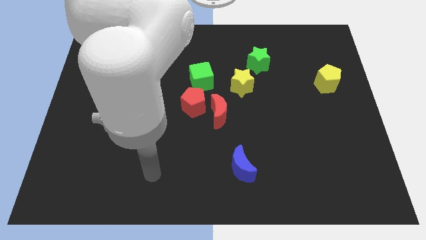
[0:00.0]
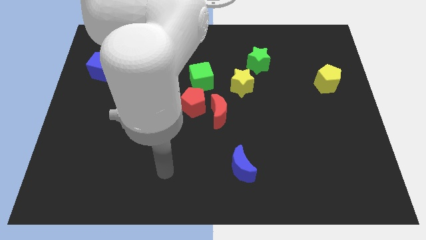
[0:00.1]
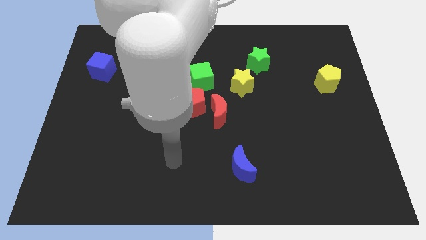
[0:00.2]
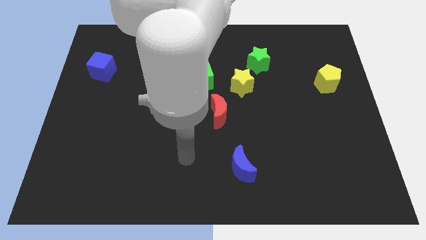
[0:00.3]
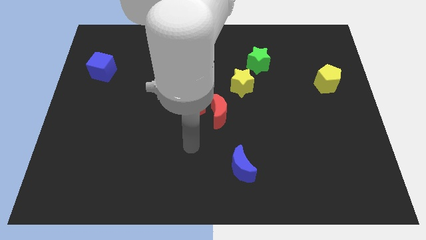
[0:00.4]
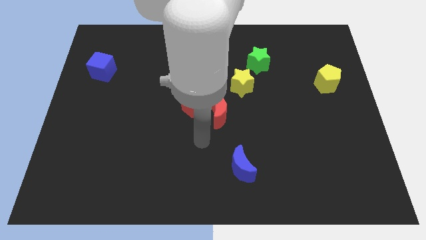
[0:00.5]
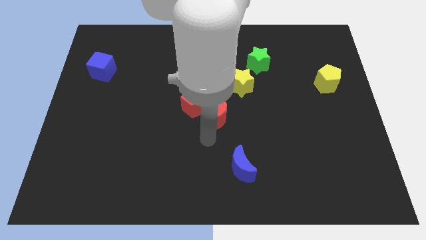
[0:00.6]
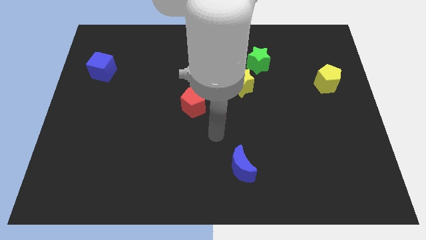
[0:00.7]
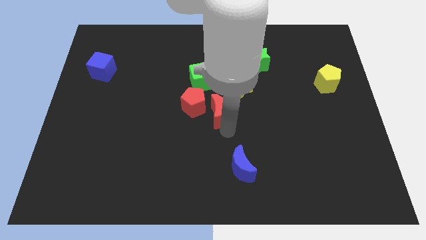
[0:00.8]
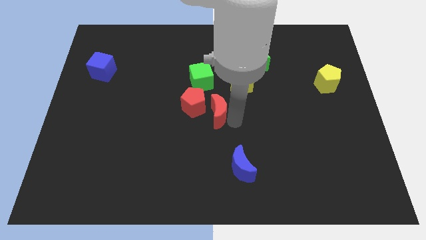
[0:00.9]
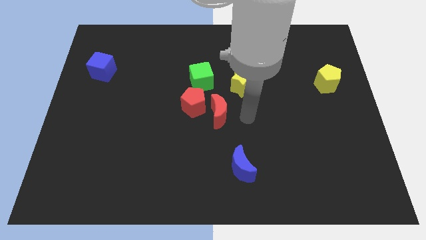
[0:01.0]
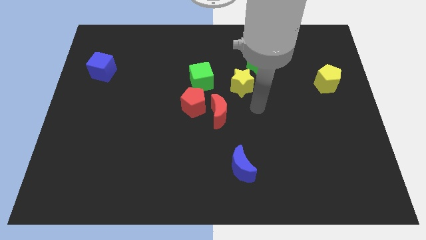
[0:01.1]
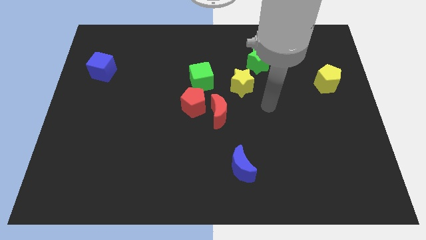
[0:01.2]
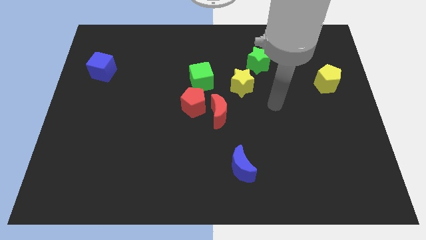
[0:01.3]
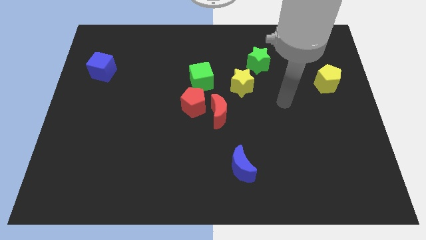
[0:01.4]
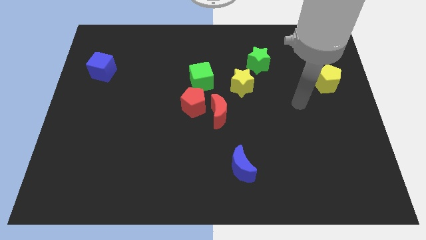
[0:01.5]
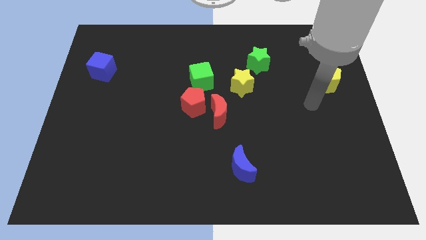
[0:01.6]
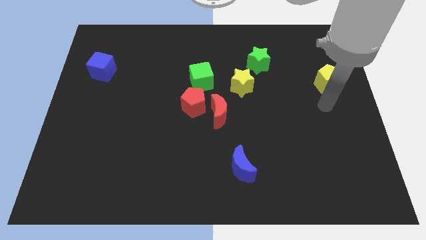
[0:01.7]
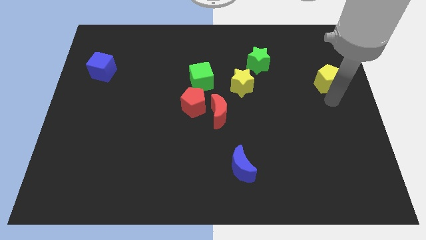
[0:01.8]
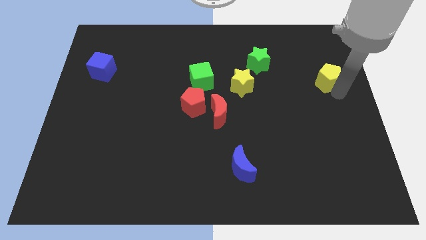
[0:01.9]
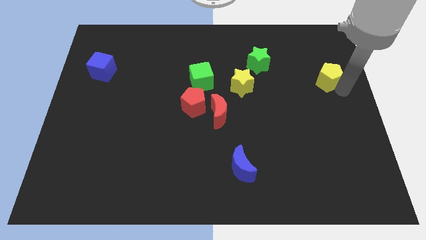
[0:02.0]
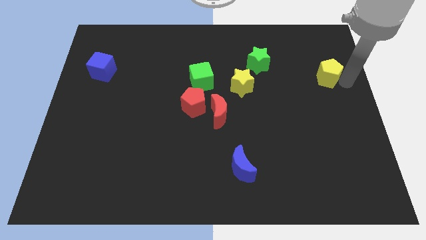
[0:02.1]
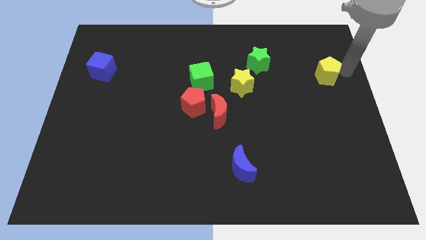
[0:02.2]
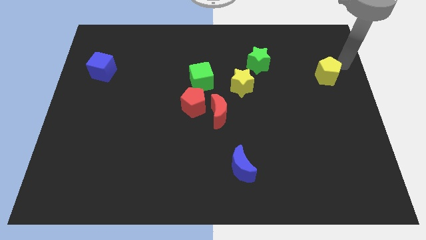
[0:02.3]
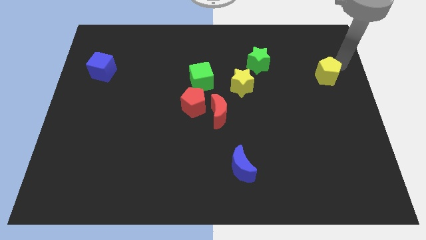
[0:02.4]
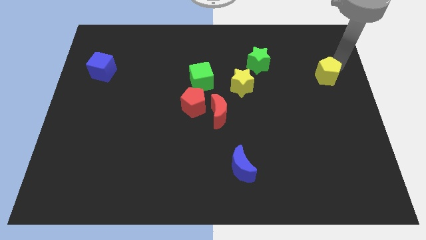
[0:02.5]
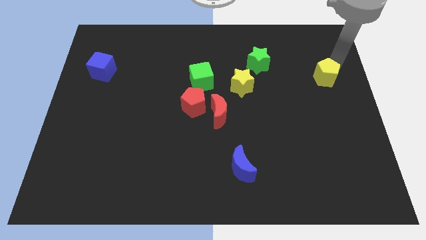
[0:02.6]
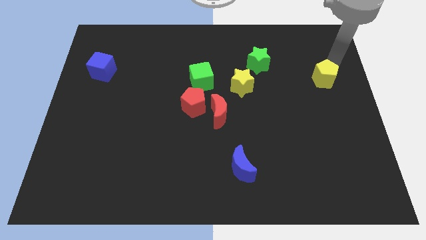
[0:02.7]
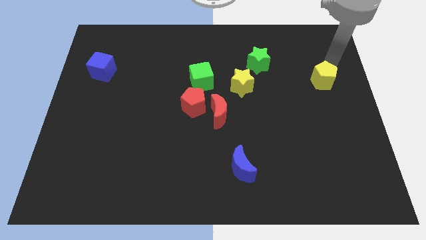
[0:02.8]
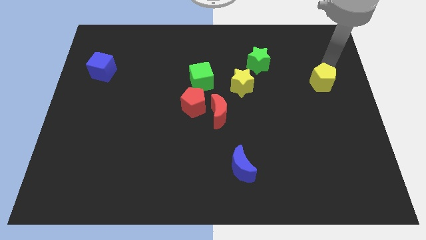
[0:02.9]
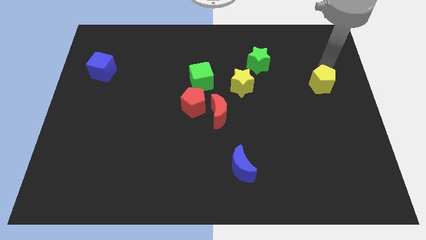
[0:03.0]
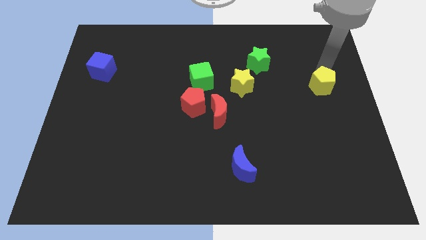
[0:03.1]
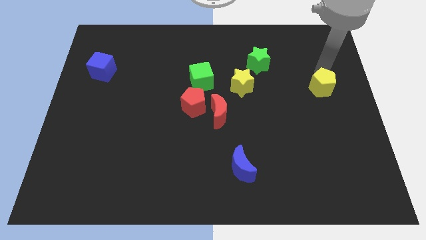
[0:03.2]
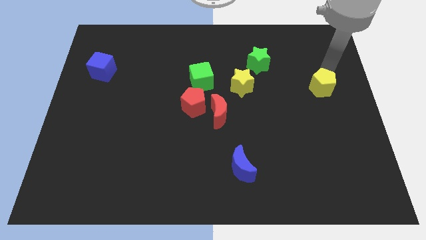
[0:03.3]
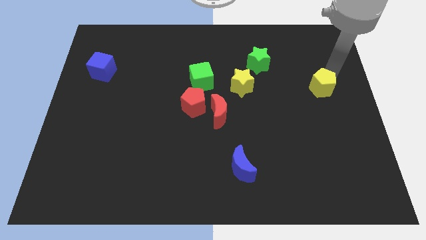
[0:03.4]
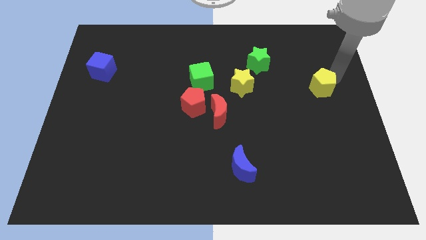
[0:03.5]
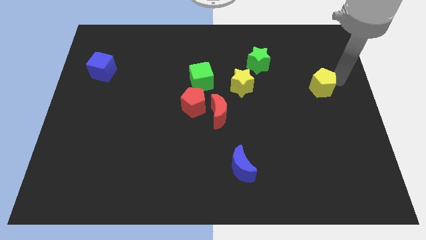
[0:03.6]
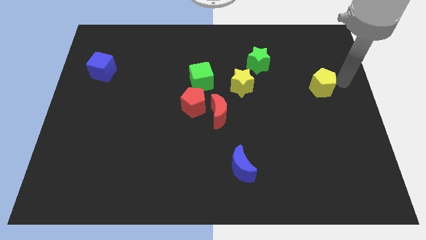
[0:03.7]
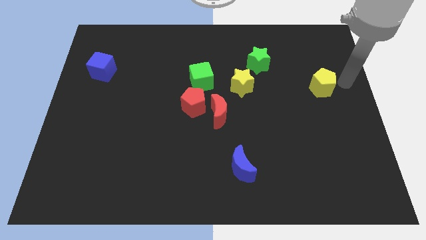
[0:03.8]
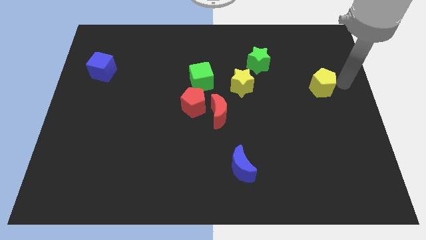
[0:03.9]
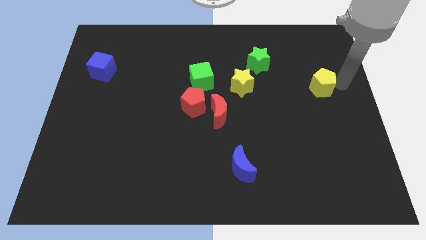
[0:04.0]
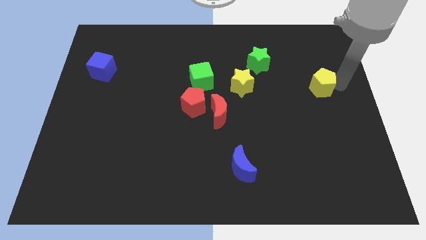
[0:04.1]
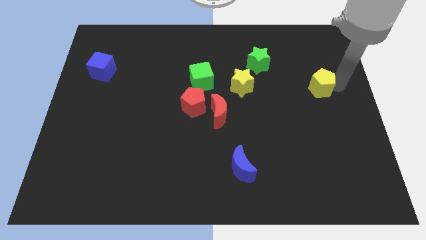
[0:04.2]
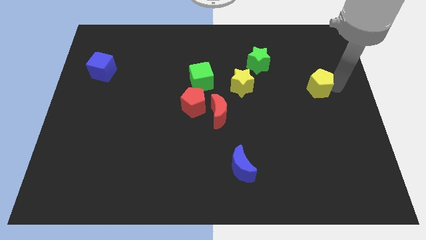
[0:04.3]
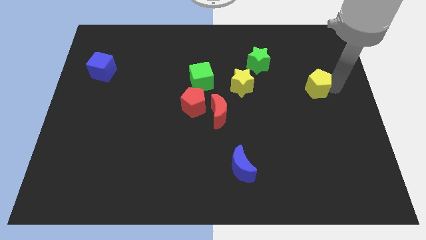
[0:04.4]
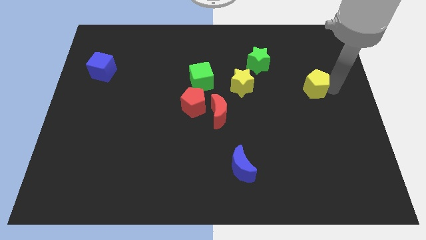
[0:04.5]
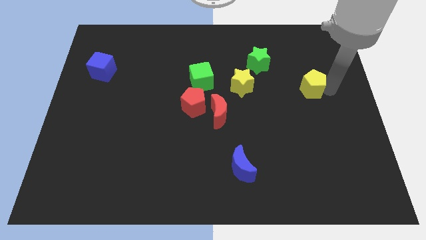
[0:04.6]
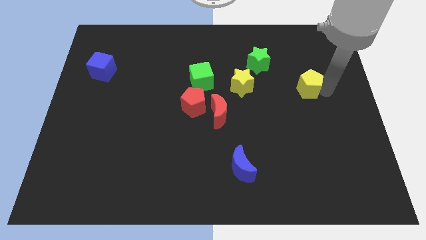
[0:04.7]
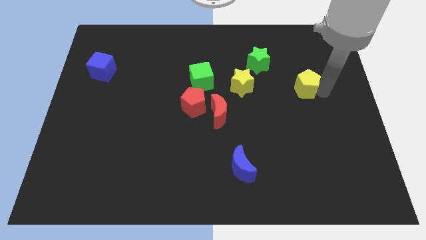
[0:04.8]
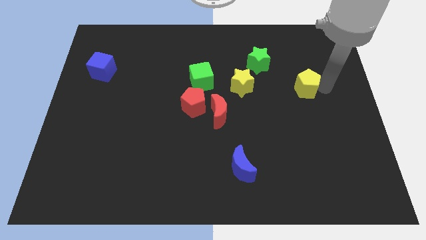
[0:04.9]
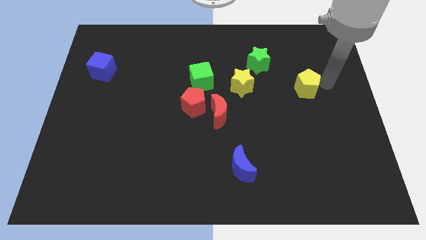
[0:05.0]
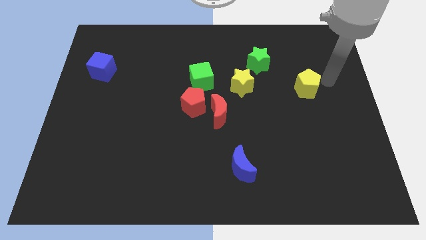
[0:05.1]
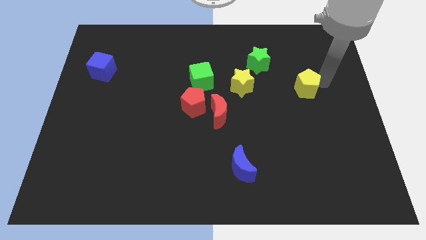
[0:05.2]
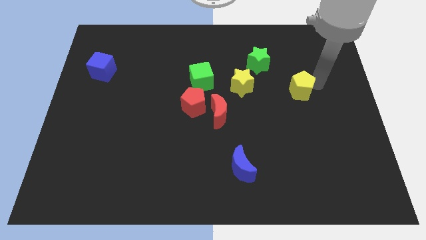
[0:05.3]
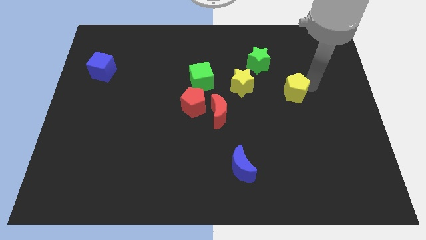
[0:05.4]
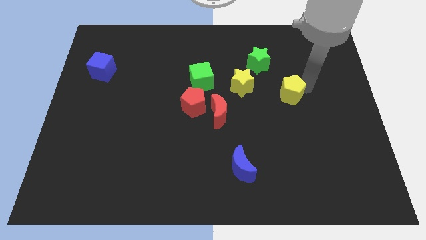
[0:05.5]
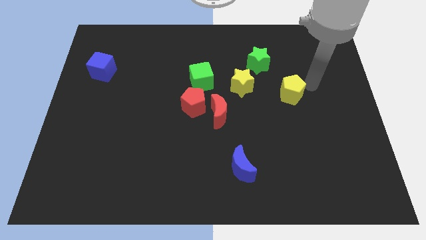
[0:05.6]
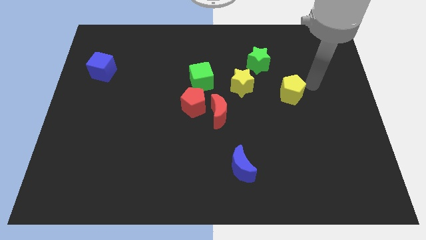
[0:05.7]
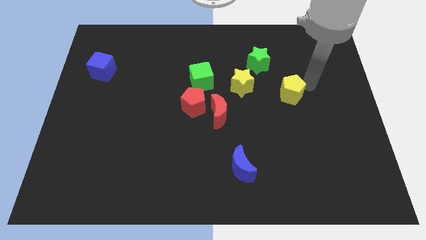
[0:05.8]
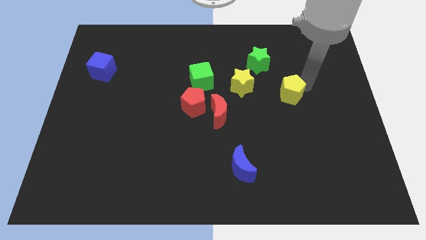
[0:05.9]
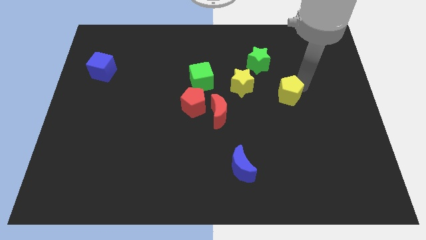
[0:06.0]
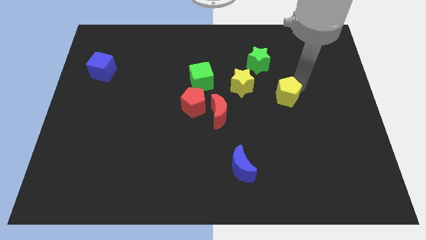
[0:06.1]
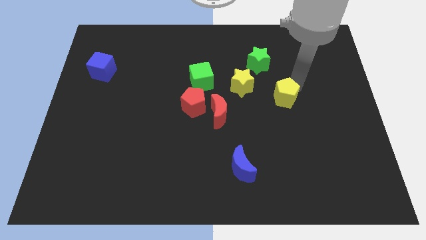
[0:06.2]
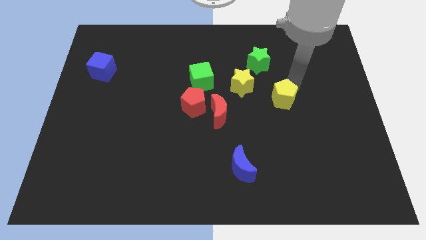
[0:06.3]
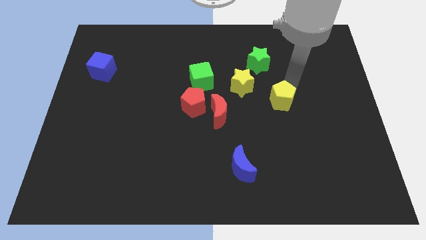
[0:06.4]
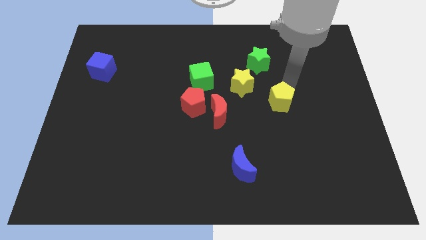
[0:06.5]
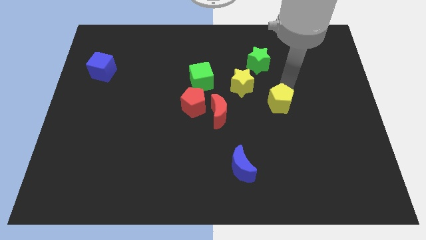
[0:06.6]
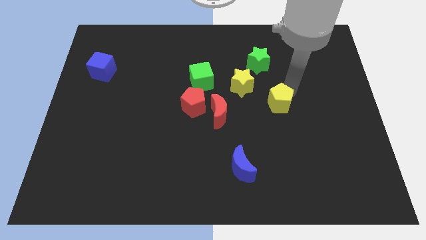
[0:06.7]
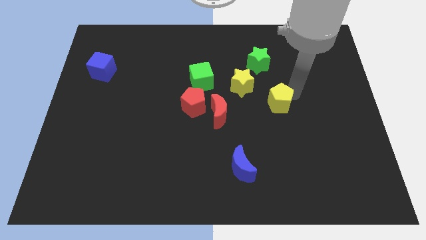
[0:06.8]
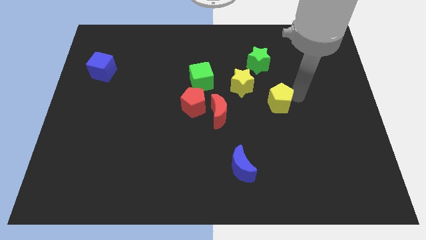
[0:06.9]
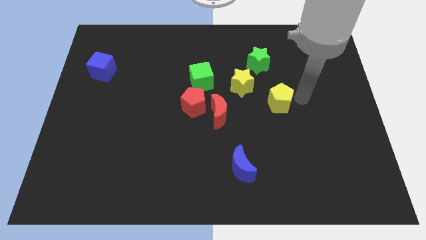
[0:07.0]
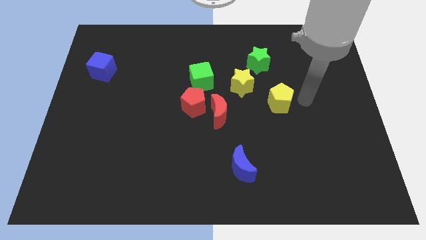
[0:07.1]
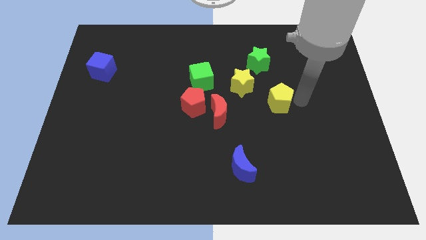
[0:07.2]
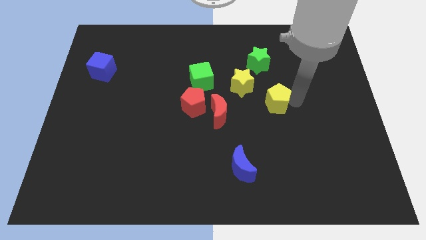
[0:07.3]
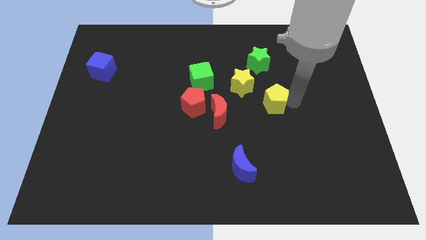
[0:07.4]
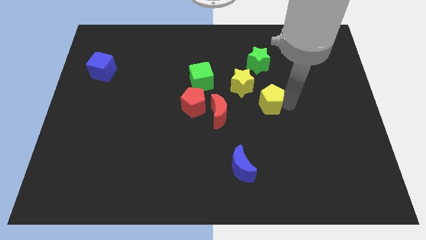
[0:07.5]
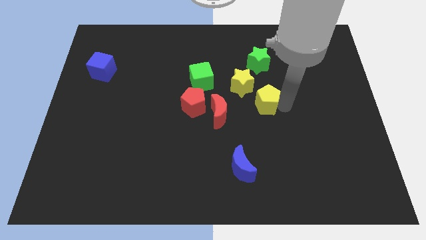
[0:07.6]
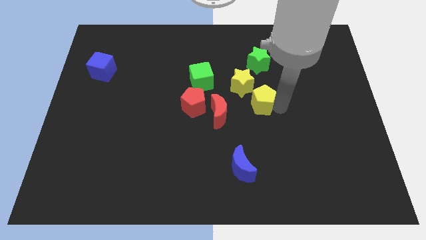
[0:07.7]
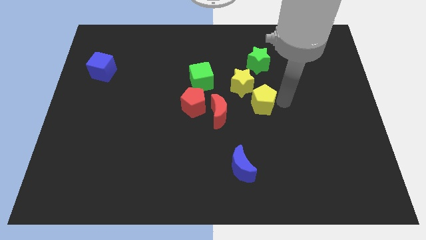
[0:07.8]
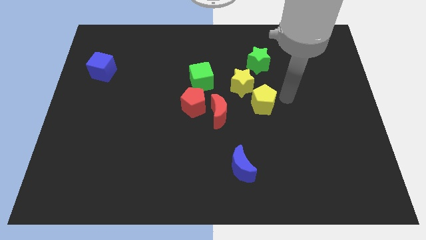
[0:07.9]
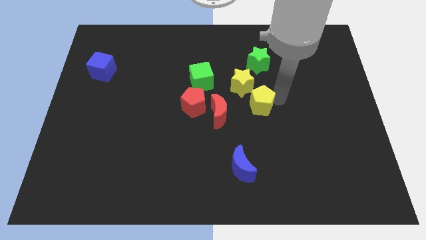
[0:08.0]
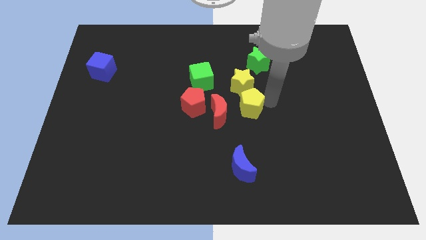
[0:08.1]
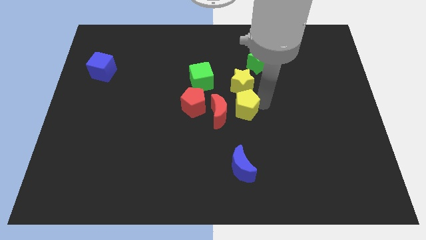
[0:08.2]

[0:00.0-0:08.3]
slide the yellow pentagon next to the red moon
